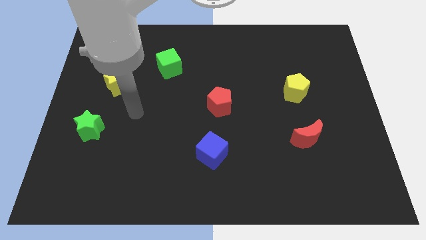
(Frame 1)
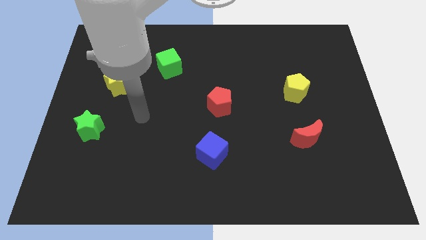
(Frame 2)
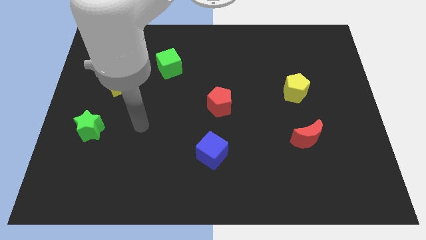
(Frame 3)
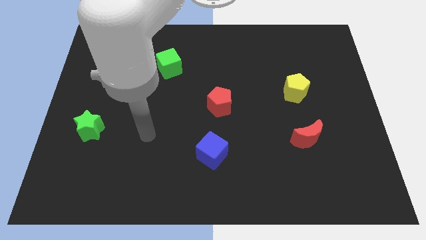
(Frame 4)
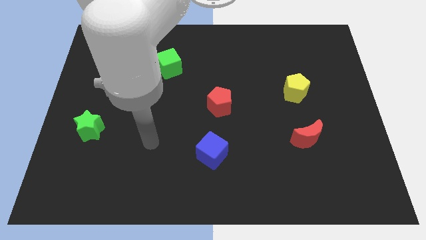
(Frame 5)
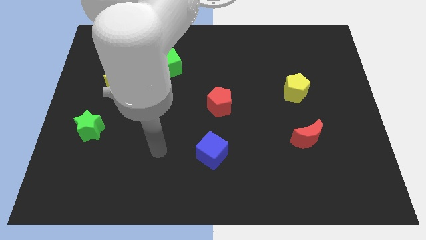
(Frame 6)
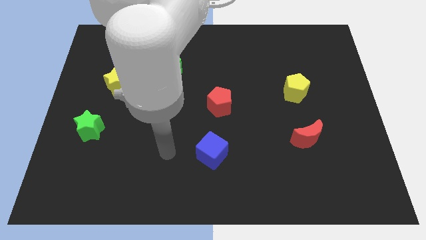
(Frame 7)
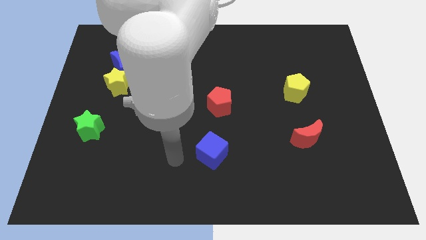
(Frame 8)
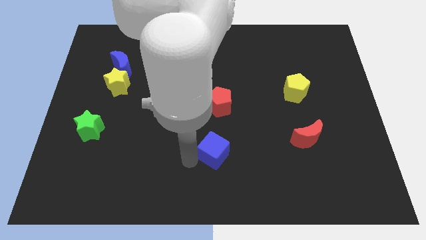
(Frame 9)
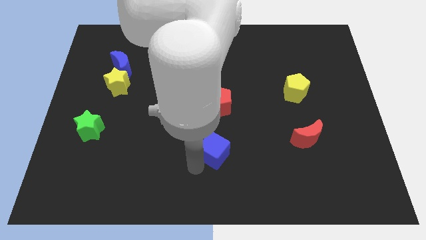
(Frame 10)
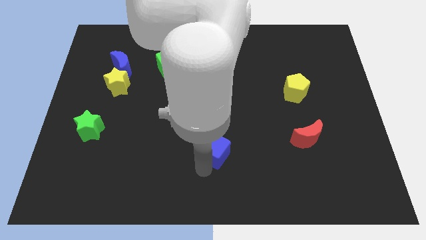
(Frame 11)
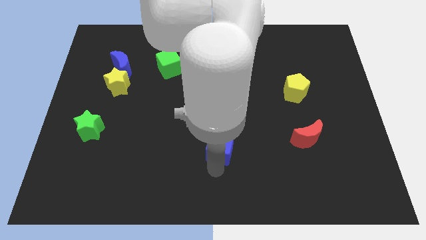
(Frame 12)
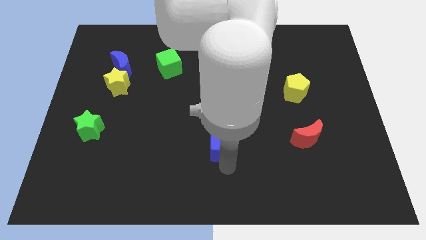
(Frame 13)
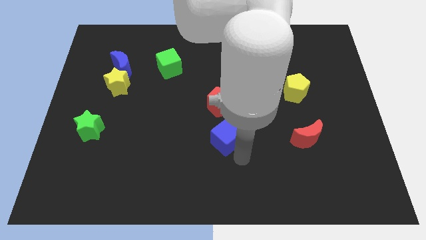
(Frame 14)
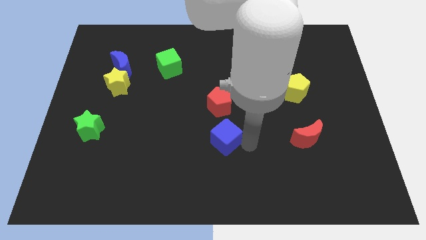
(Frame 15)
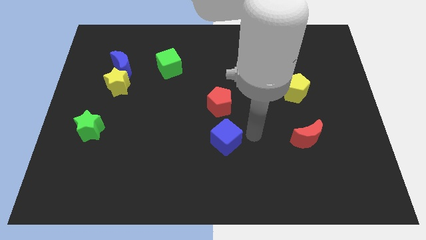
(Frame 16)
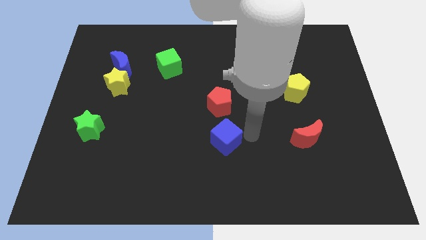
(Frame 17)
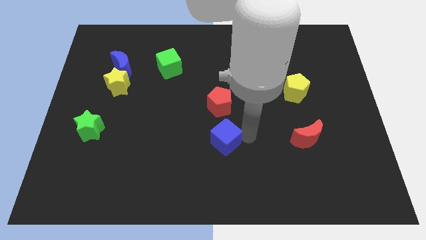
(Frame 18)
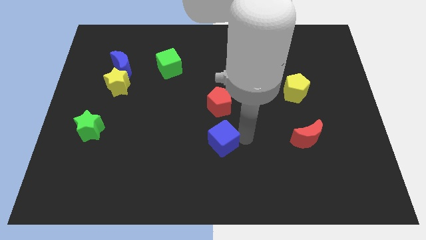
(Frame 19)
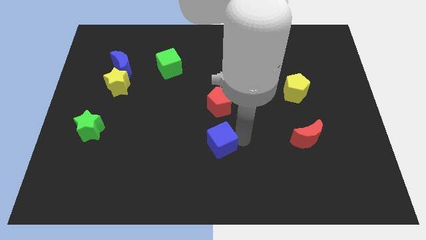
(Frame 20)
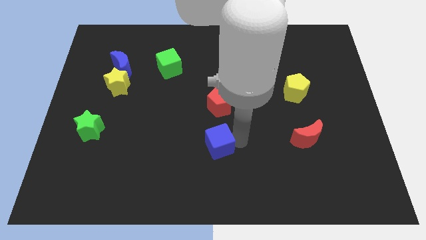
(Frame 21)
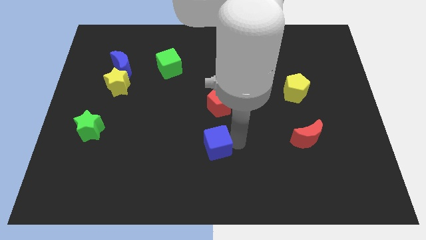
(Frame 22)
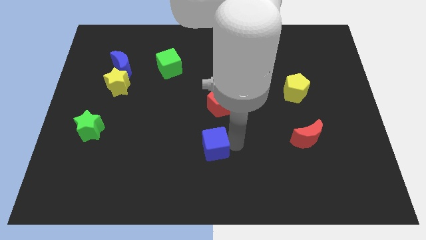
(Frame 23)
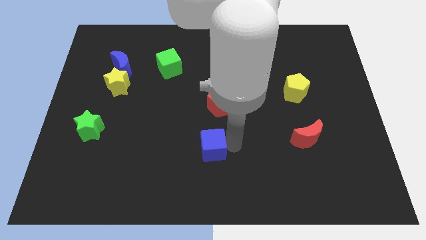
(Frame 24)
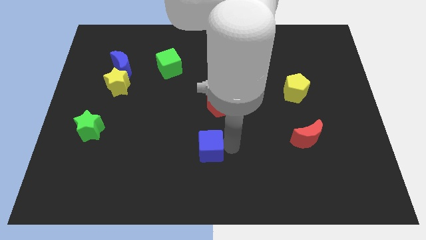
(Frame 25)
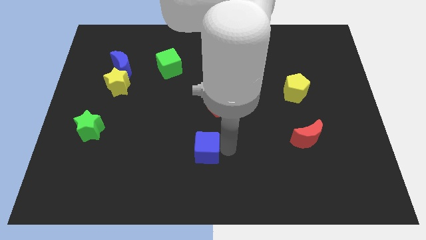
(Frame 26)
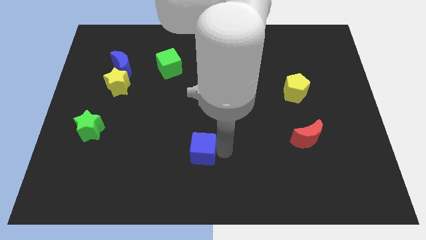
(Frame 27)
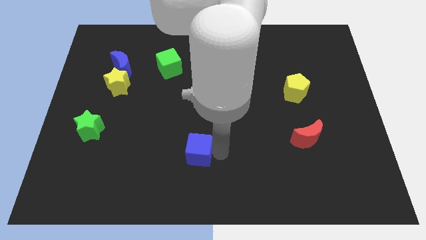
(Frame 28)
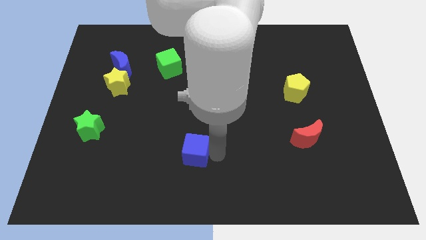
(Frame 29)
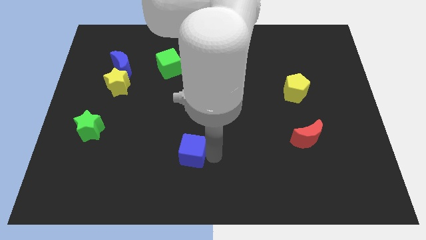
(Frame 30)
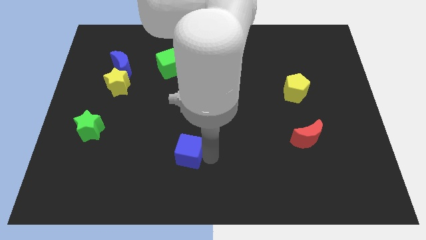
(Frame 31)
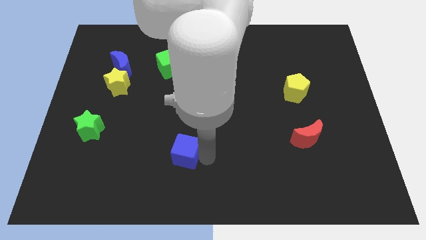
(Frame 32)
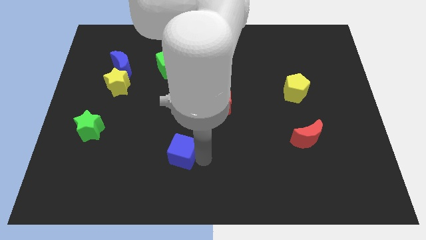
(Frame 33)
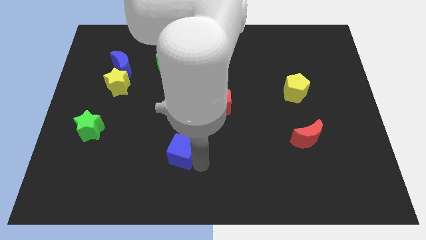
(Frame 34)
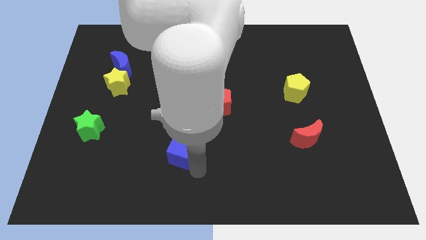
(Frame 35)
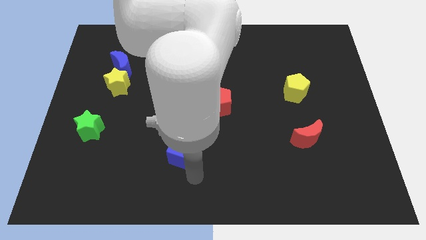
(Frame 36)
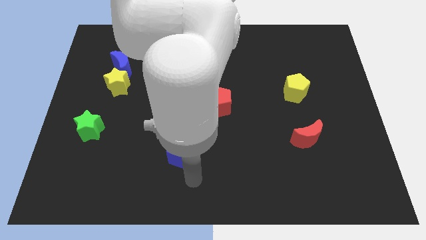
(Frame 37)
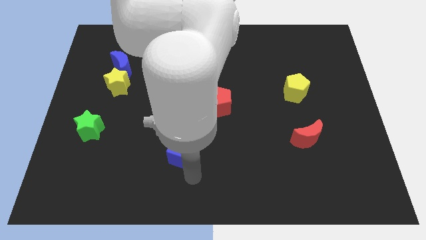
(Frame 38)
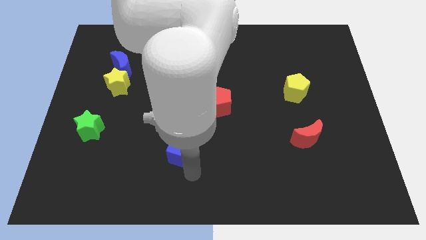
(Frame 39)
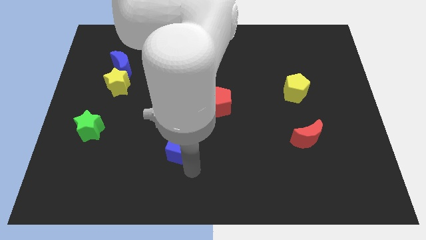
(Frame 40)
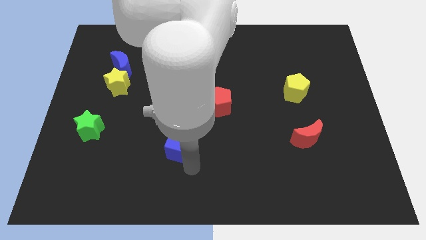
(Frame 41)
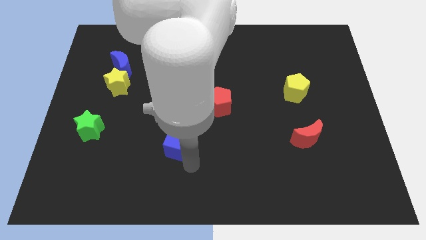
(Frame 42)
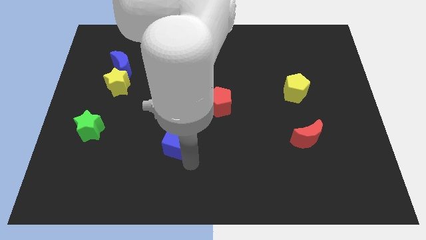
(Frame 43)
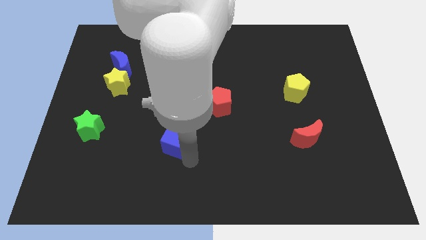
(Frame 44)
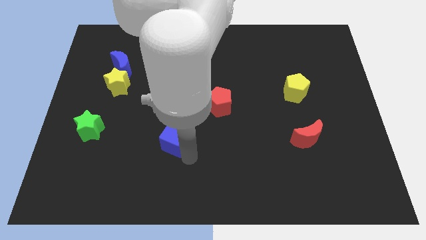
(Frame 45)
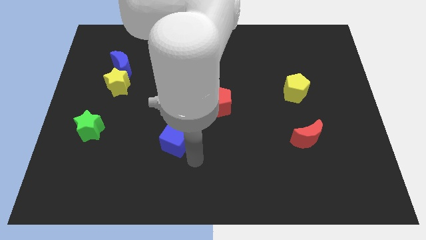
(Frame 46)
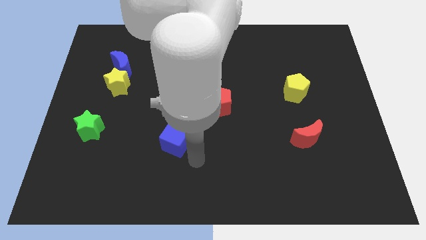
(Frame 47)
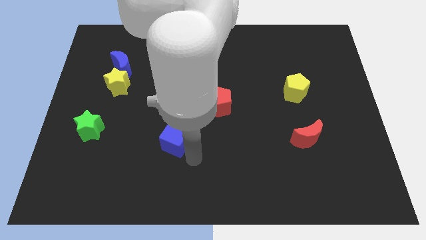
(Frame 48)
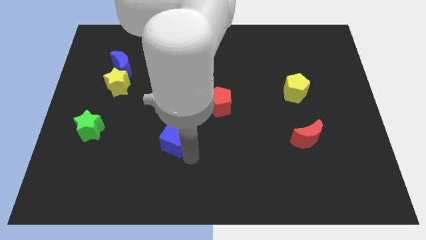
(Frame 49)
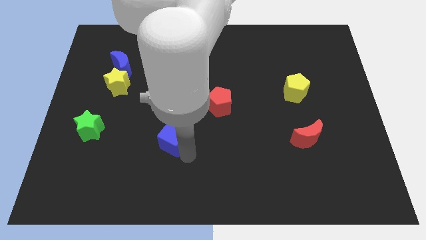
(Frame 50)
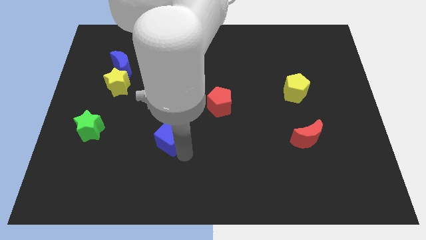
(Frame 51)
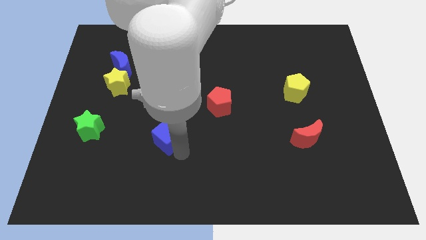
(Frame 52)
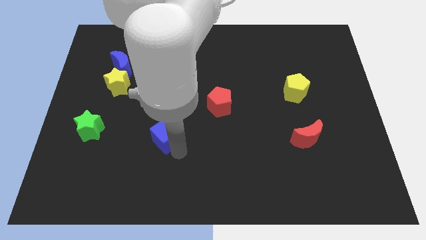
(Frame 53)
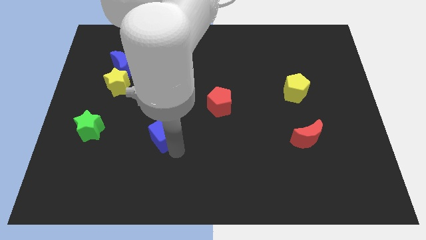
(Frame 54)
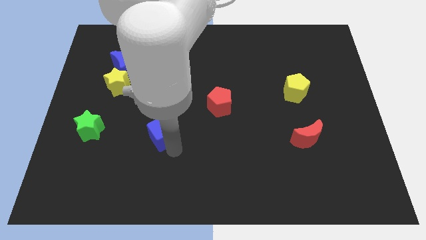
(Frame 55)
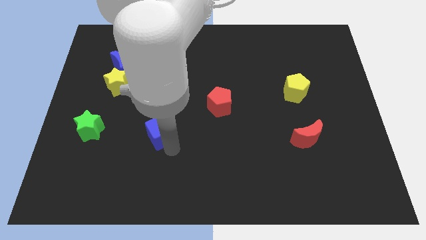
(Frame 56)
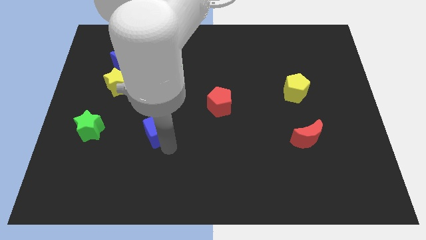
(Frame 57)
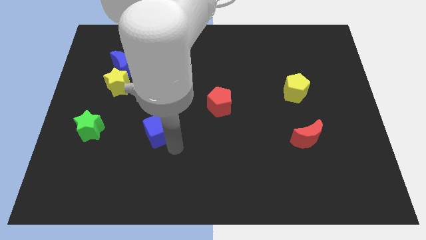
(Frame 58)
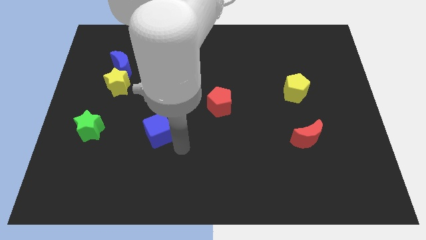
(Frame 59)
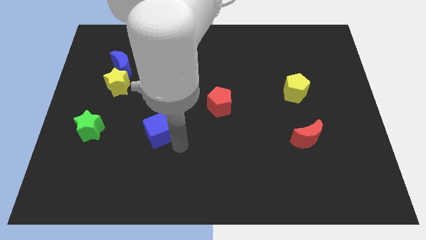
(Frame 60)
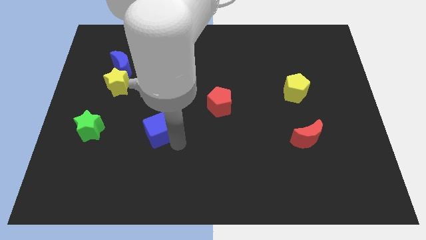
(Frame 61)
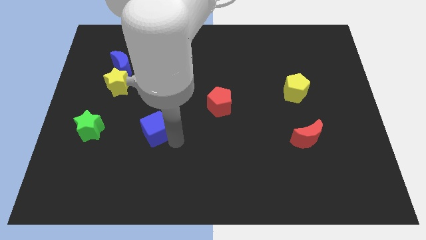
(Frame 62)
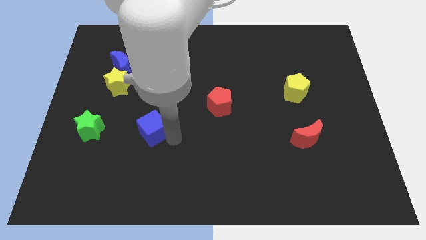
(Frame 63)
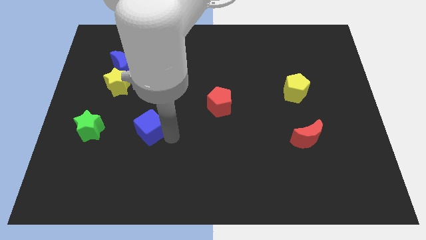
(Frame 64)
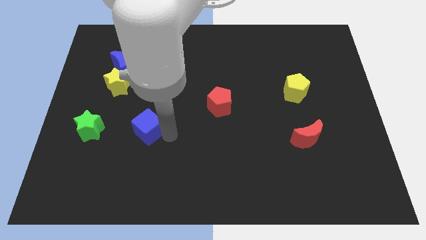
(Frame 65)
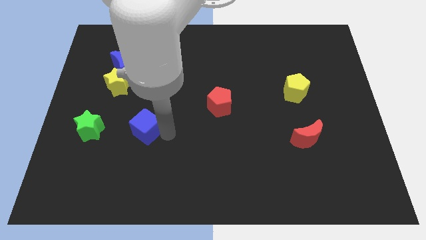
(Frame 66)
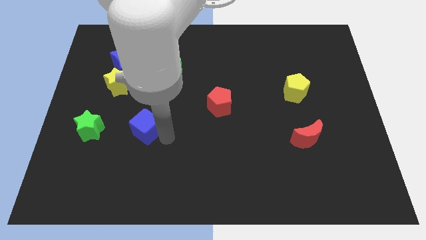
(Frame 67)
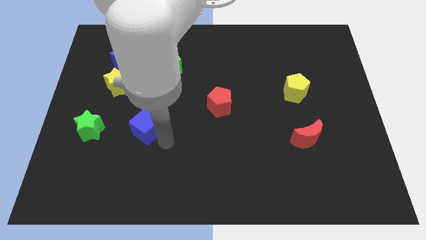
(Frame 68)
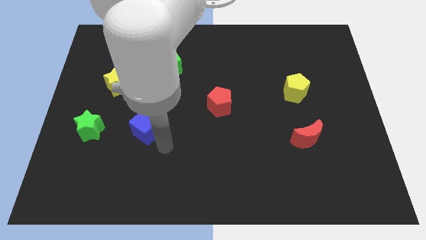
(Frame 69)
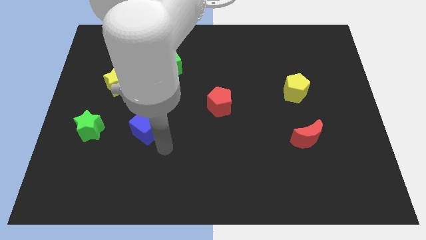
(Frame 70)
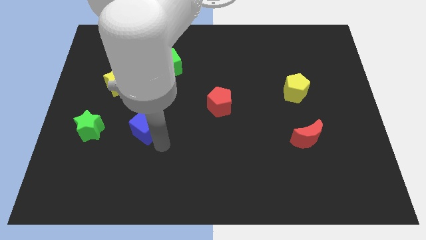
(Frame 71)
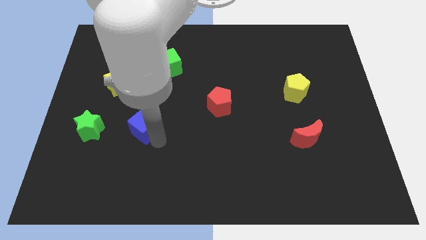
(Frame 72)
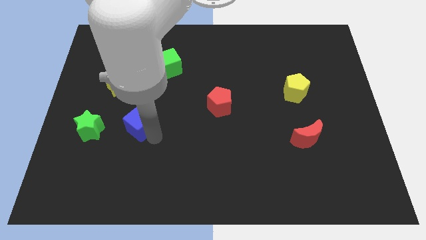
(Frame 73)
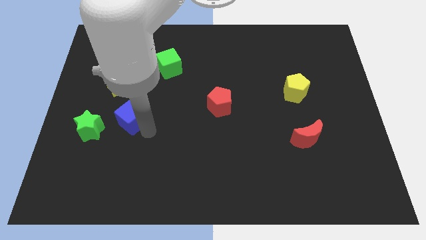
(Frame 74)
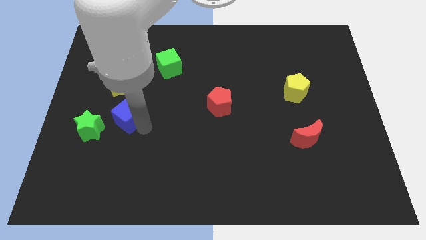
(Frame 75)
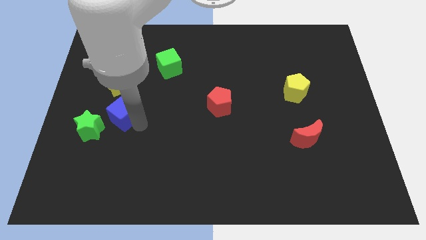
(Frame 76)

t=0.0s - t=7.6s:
slide the blue cube to the bottom side of the blue moon

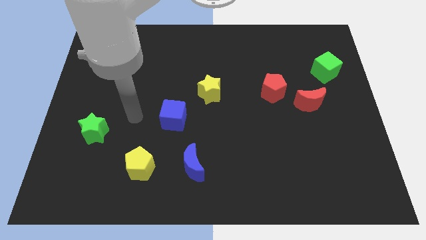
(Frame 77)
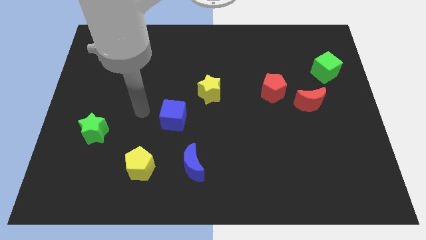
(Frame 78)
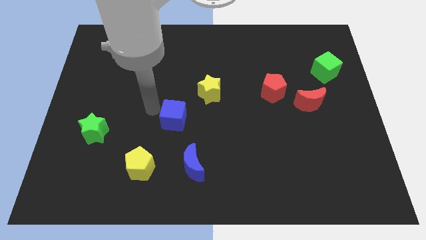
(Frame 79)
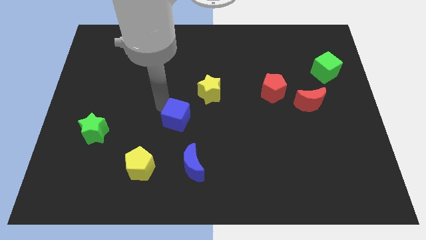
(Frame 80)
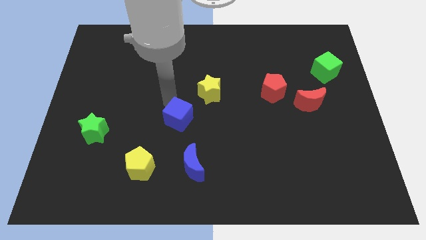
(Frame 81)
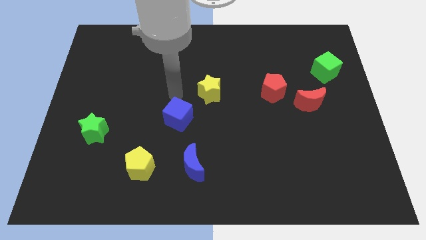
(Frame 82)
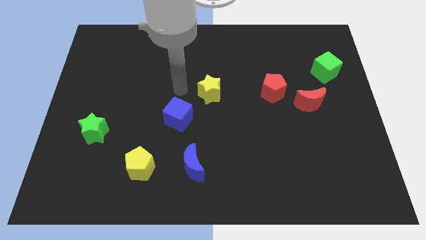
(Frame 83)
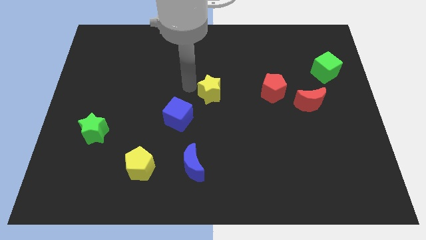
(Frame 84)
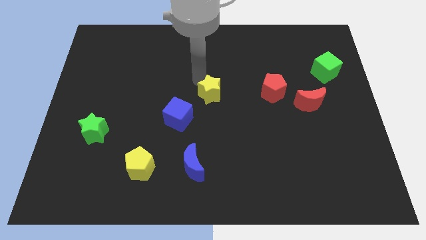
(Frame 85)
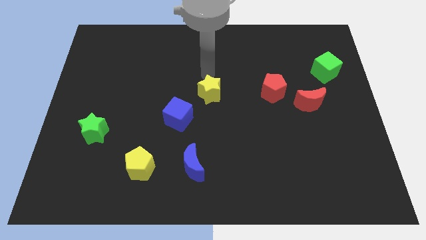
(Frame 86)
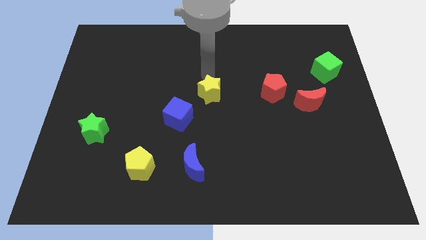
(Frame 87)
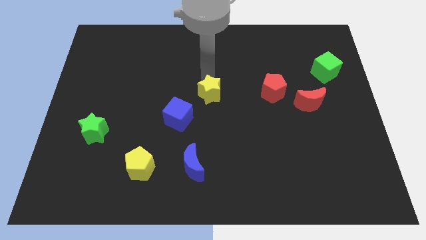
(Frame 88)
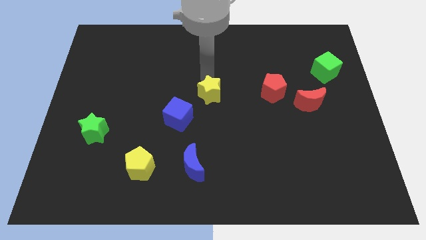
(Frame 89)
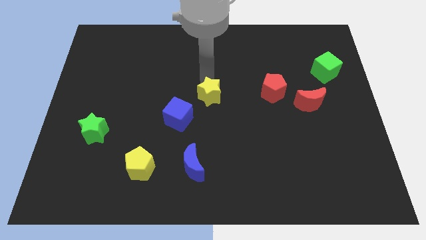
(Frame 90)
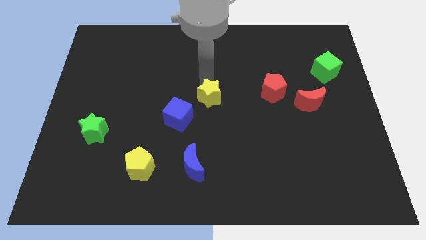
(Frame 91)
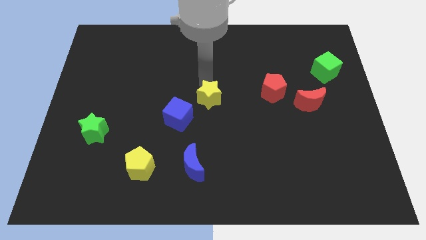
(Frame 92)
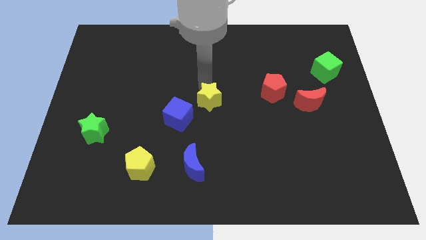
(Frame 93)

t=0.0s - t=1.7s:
slide the yellow star just right of the blue cube
